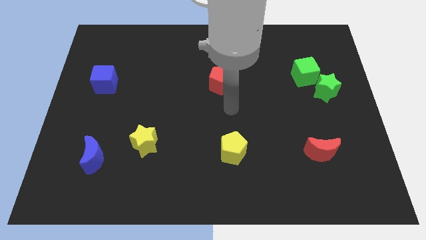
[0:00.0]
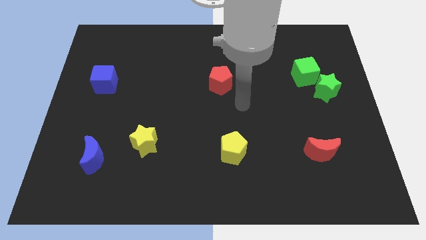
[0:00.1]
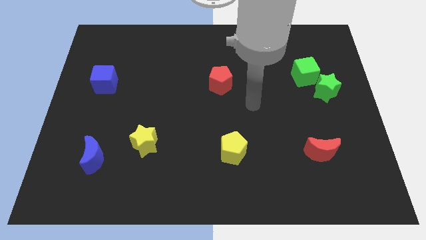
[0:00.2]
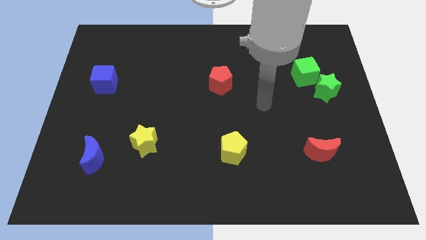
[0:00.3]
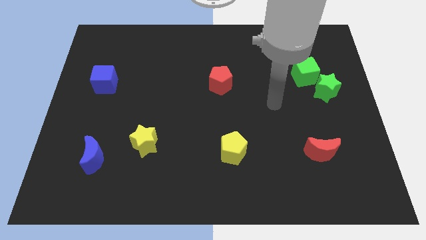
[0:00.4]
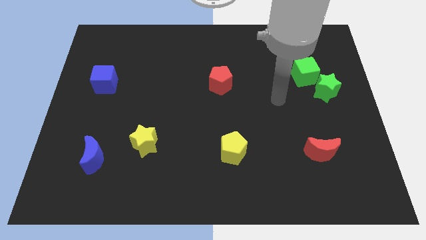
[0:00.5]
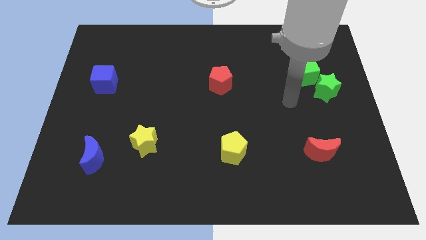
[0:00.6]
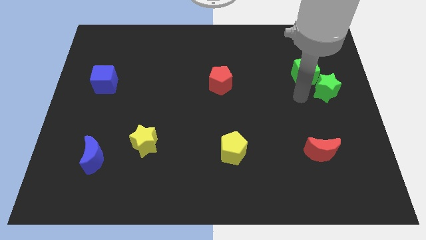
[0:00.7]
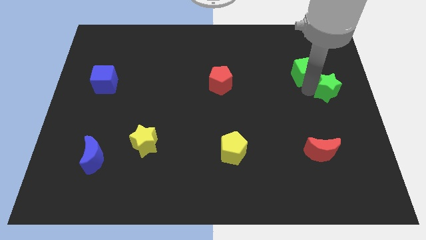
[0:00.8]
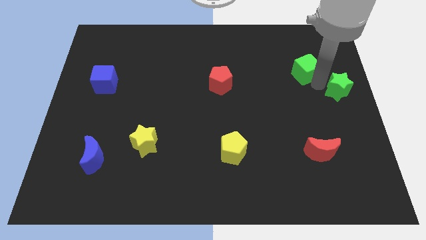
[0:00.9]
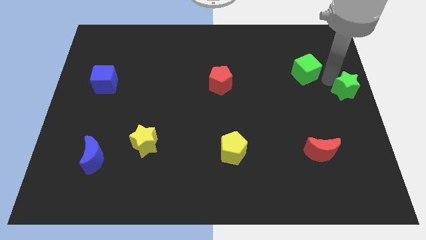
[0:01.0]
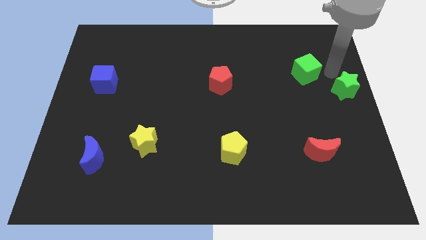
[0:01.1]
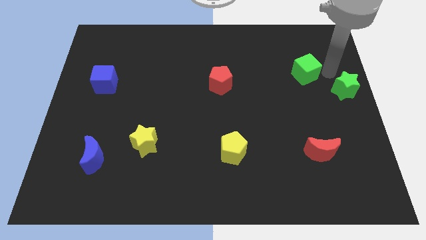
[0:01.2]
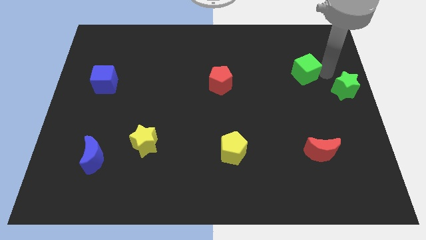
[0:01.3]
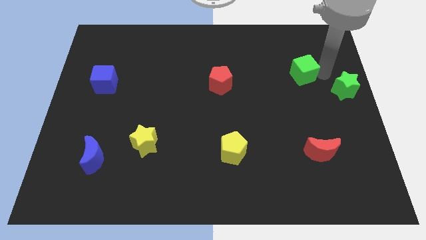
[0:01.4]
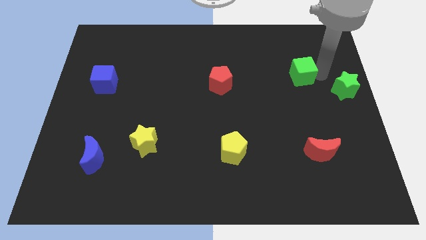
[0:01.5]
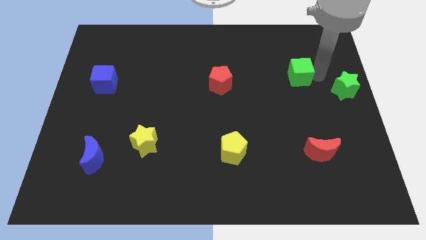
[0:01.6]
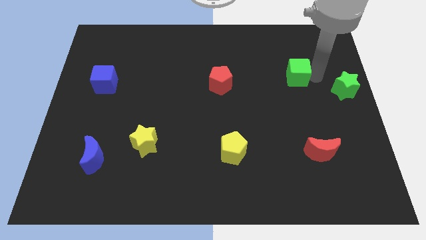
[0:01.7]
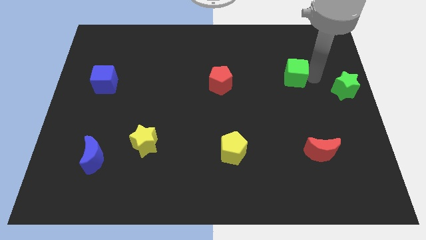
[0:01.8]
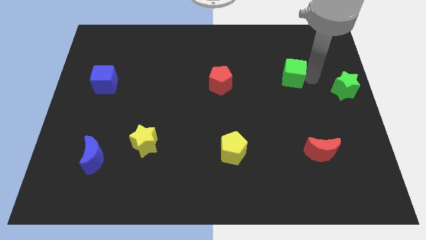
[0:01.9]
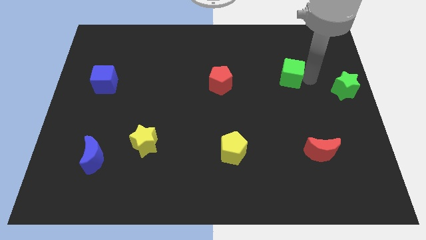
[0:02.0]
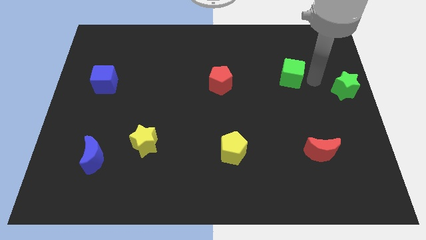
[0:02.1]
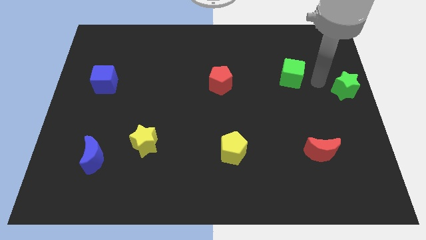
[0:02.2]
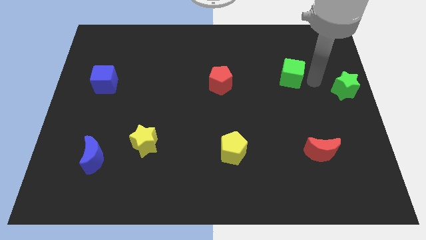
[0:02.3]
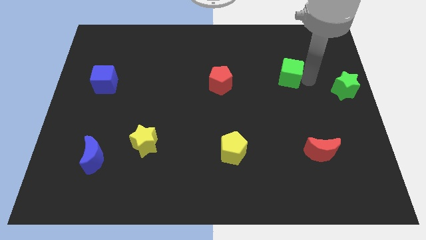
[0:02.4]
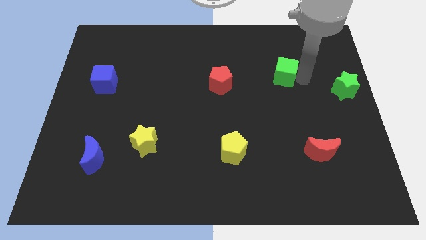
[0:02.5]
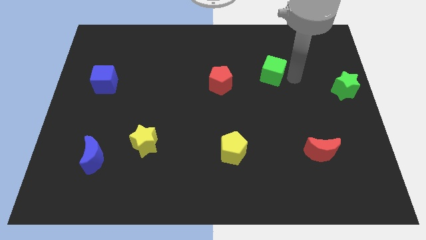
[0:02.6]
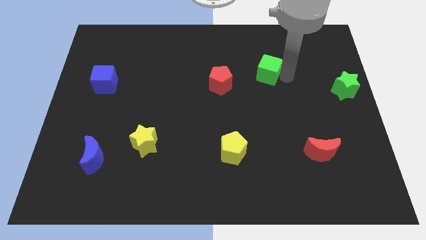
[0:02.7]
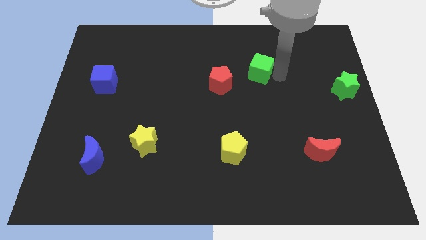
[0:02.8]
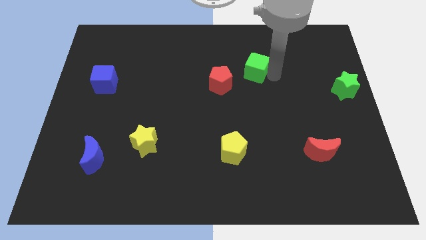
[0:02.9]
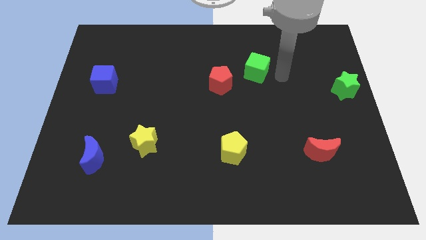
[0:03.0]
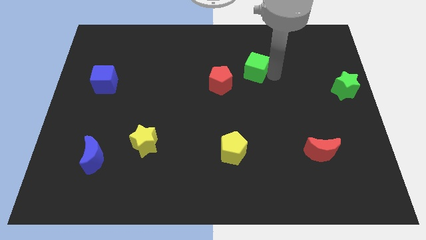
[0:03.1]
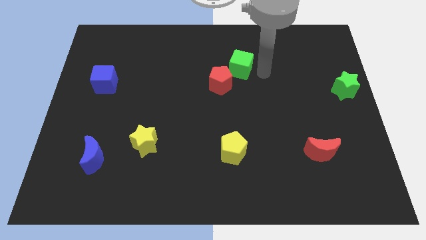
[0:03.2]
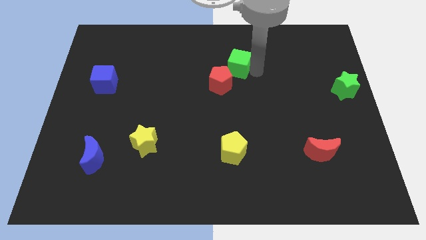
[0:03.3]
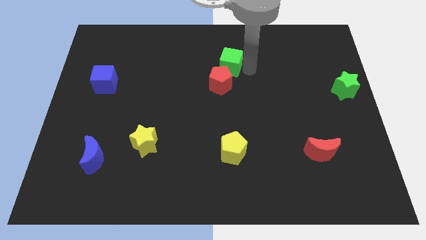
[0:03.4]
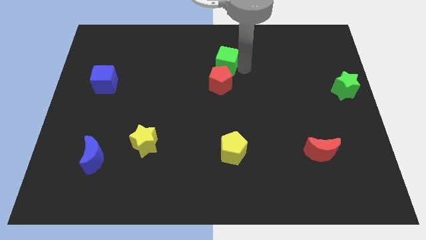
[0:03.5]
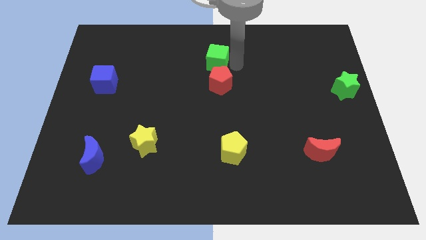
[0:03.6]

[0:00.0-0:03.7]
move the green cube to the left

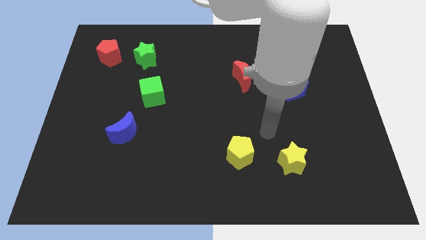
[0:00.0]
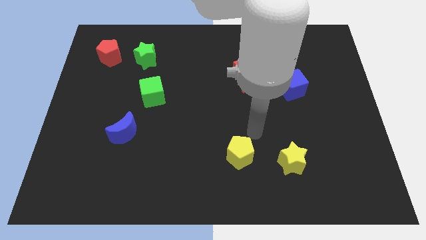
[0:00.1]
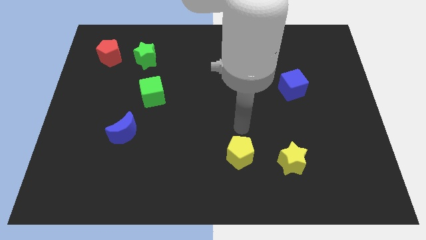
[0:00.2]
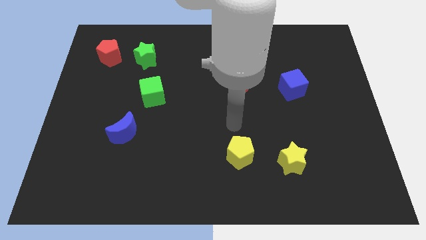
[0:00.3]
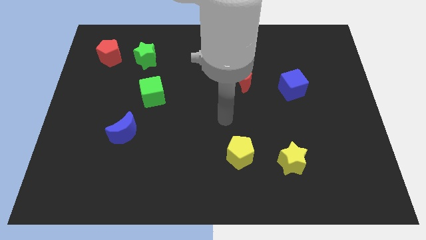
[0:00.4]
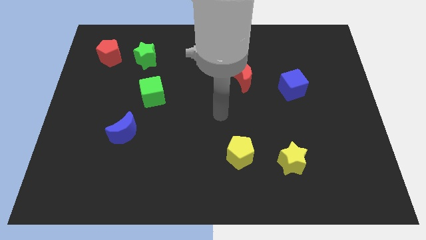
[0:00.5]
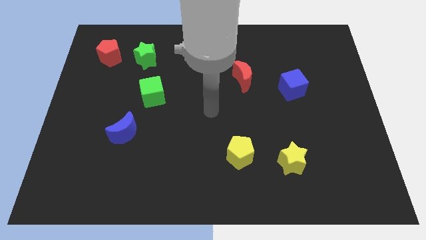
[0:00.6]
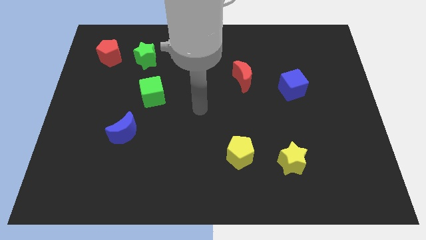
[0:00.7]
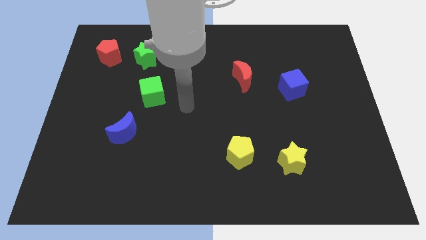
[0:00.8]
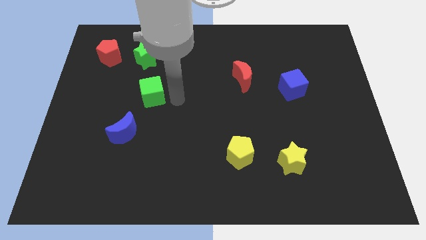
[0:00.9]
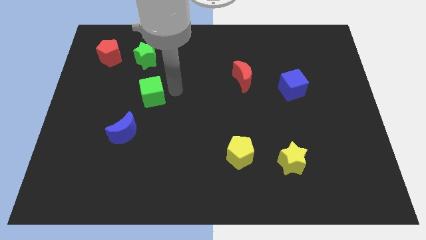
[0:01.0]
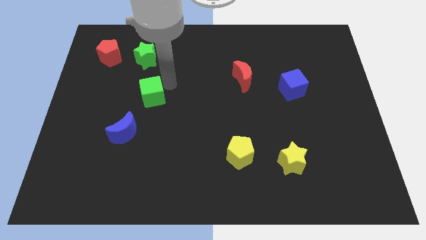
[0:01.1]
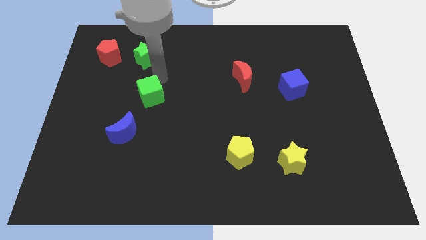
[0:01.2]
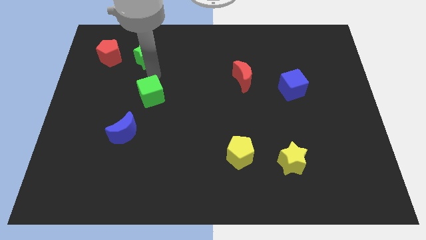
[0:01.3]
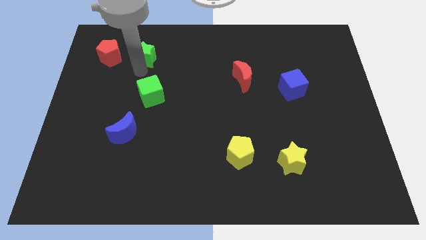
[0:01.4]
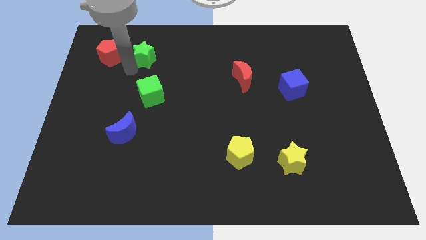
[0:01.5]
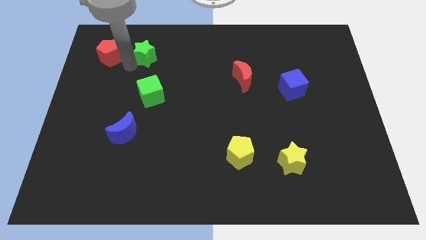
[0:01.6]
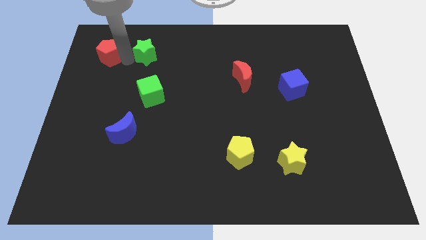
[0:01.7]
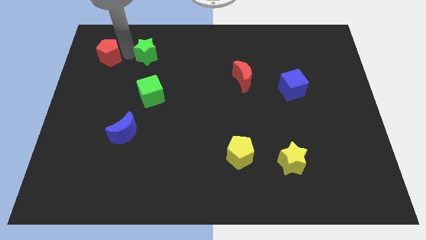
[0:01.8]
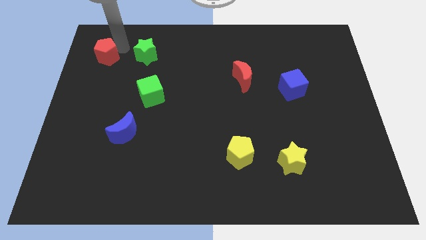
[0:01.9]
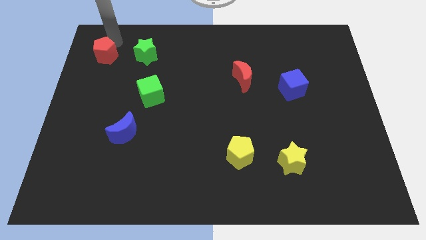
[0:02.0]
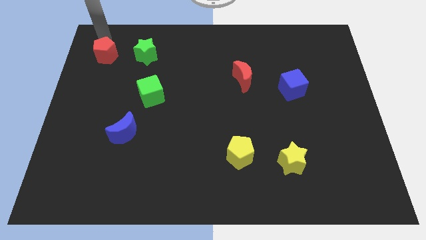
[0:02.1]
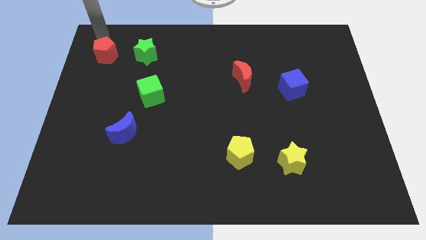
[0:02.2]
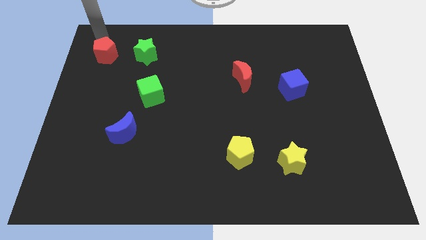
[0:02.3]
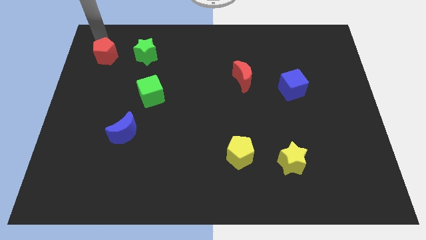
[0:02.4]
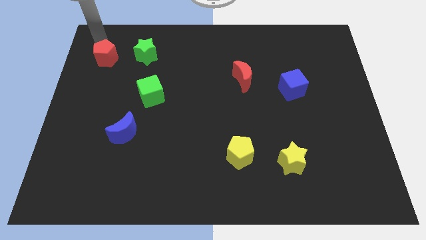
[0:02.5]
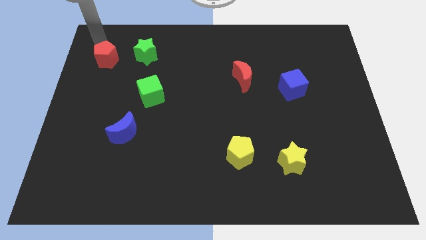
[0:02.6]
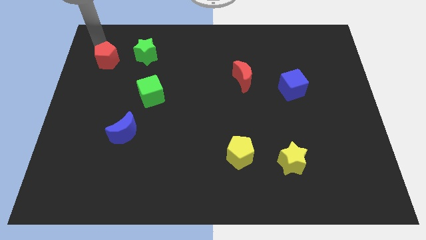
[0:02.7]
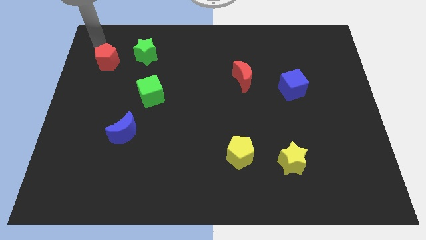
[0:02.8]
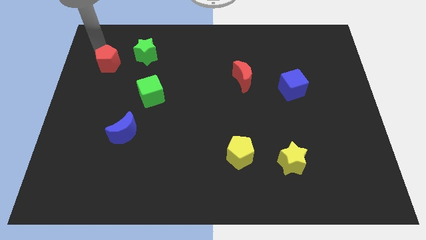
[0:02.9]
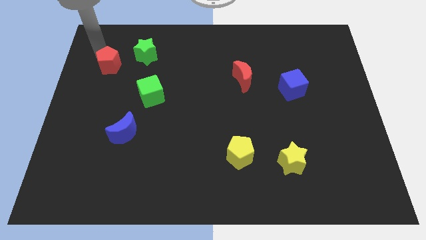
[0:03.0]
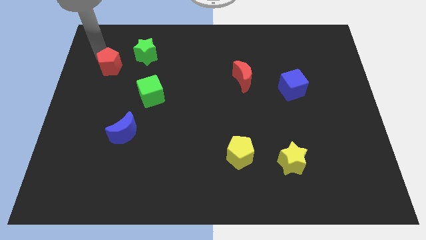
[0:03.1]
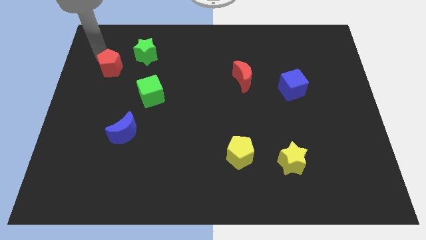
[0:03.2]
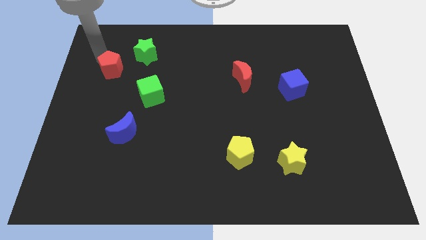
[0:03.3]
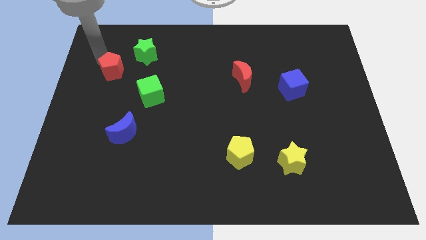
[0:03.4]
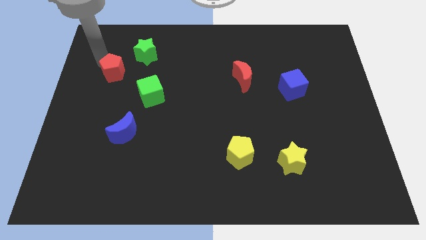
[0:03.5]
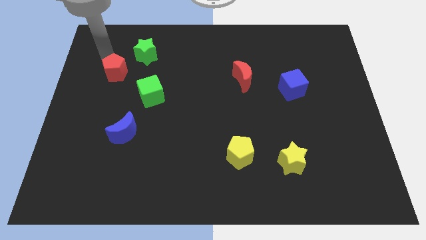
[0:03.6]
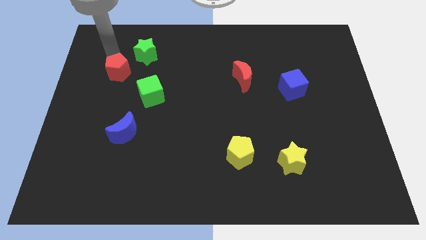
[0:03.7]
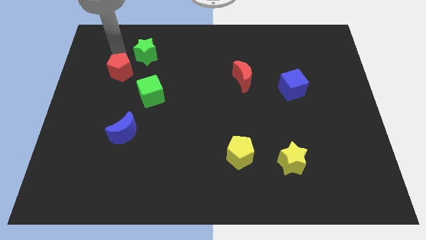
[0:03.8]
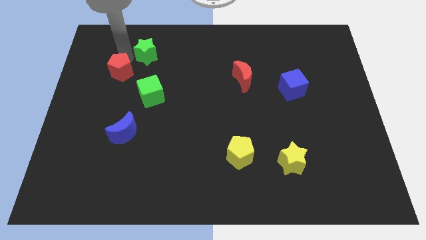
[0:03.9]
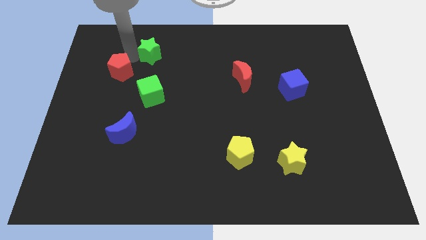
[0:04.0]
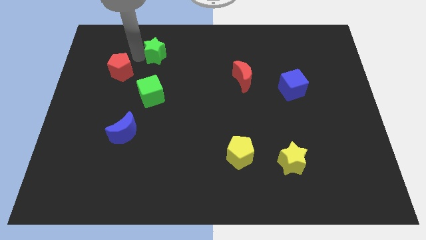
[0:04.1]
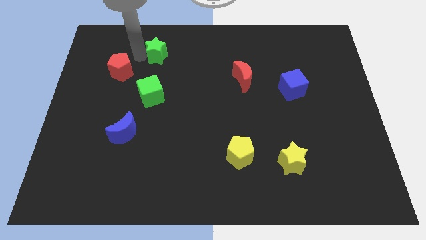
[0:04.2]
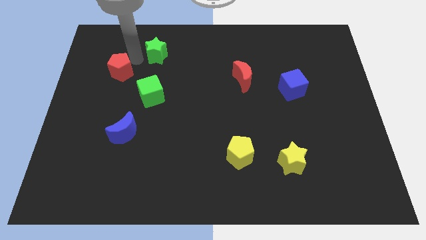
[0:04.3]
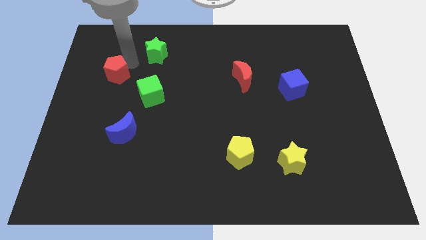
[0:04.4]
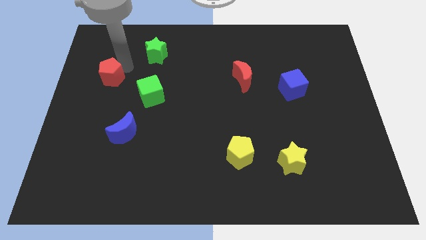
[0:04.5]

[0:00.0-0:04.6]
push the red pentagon a little downwards
